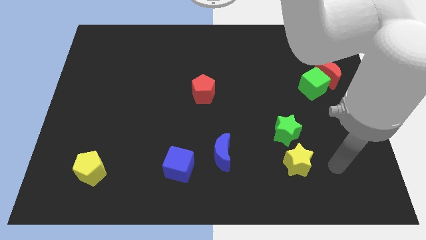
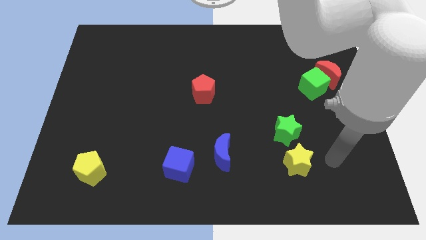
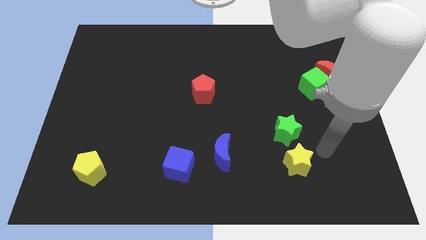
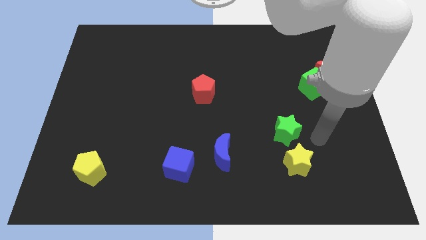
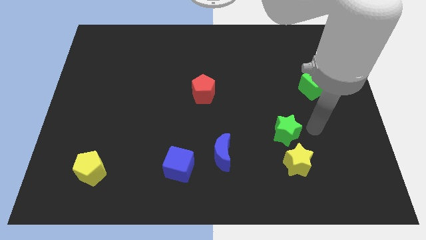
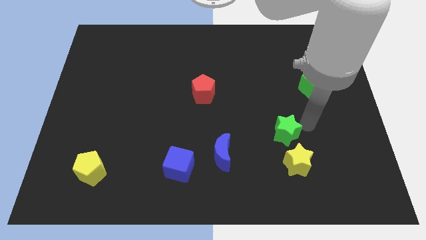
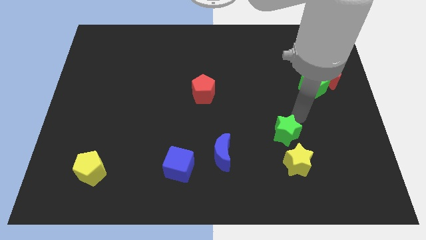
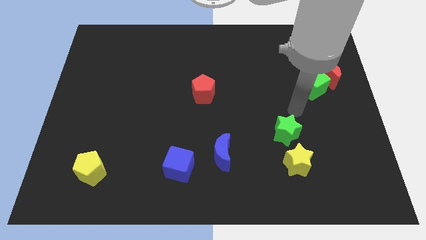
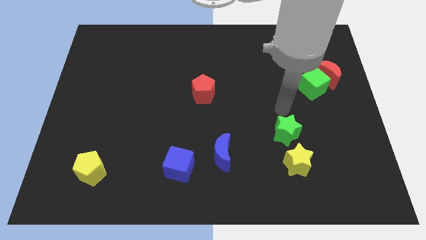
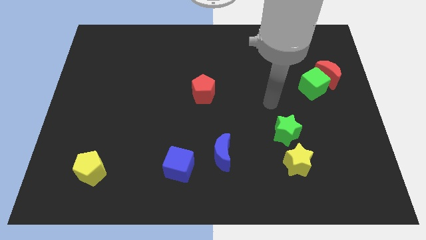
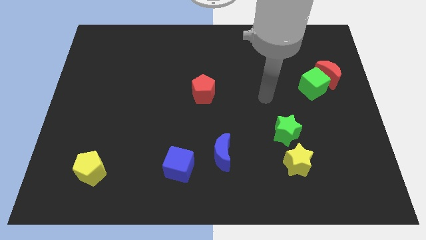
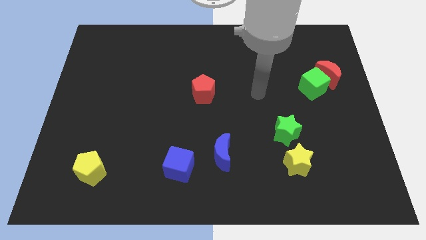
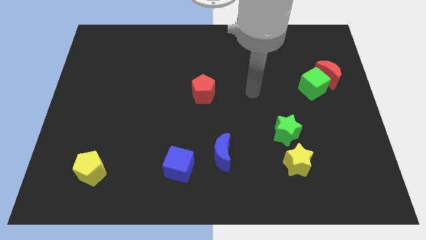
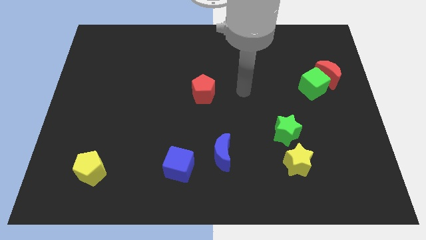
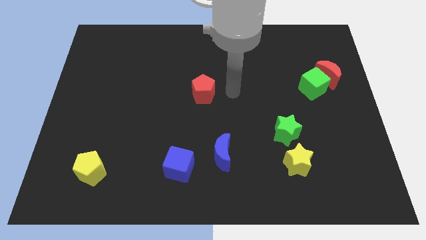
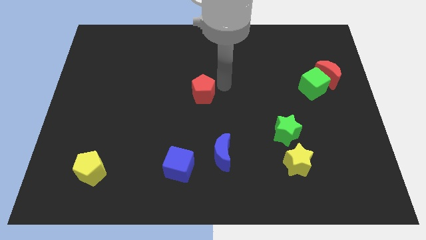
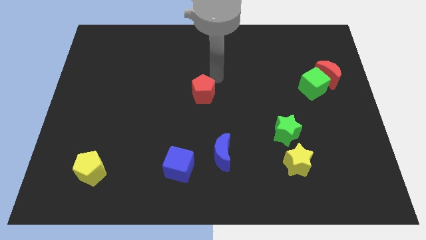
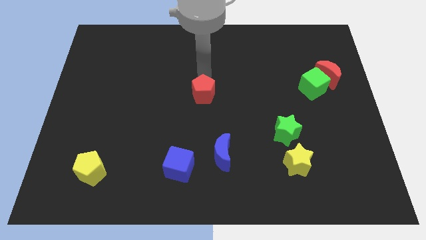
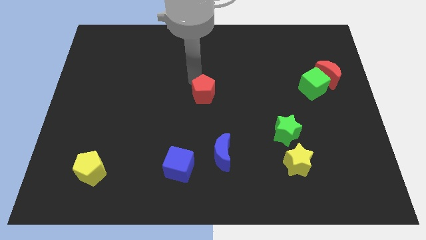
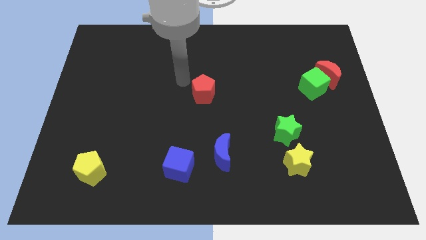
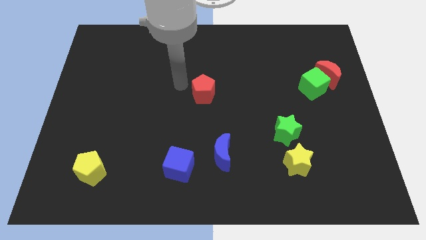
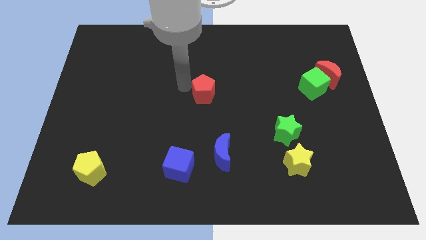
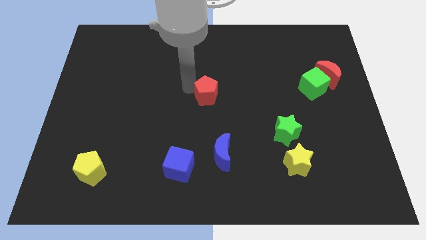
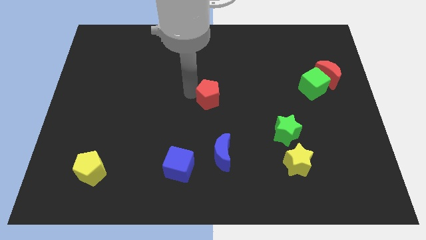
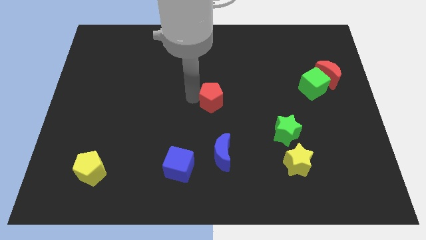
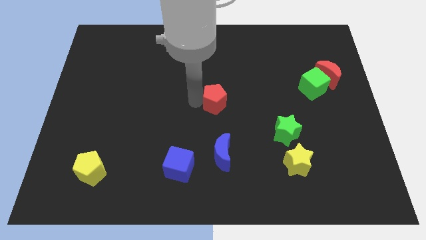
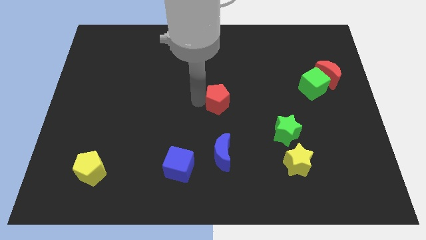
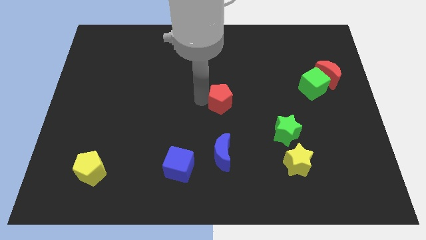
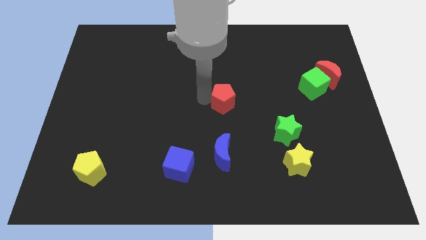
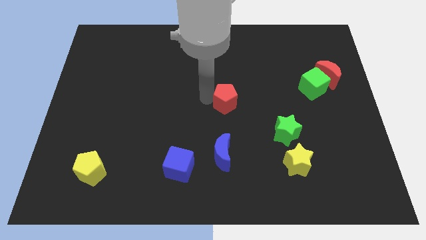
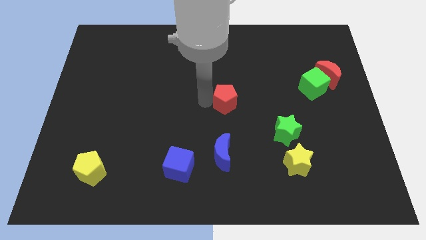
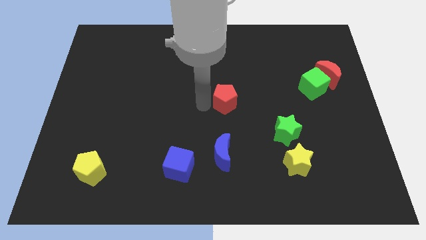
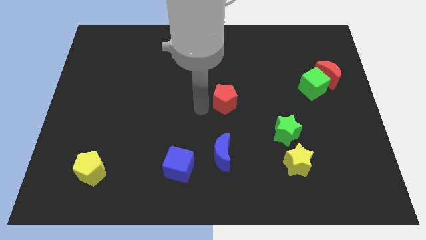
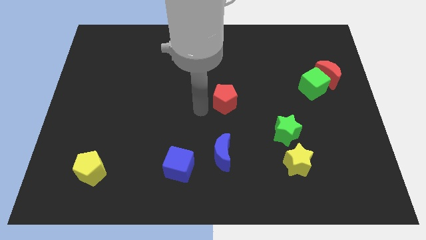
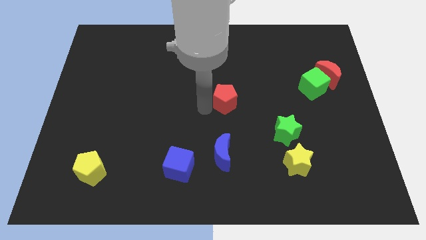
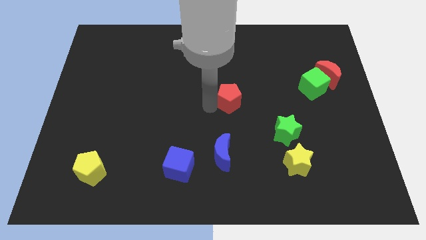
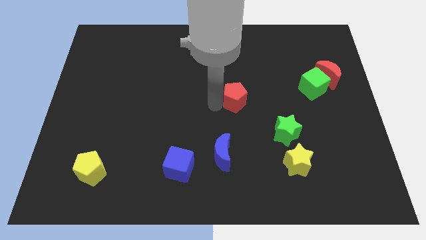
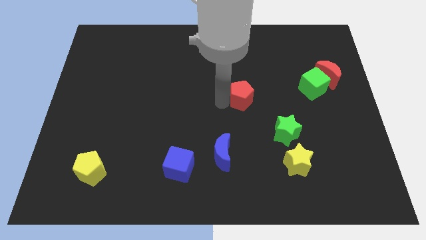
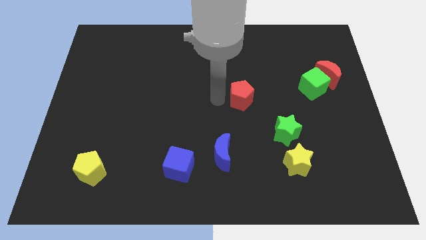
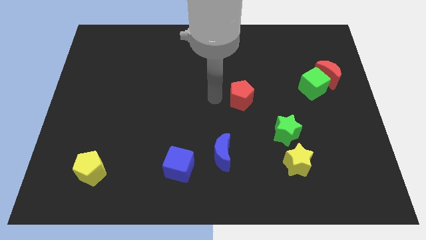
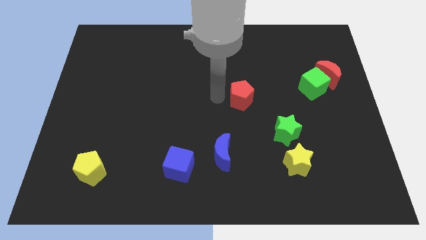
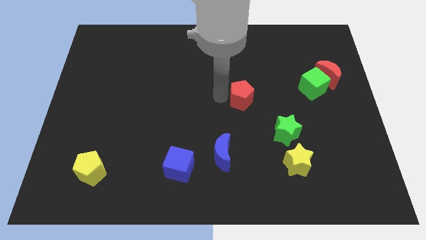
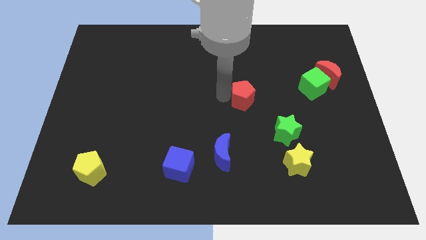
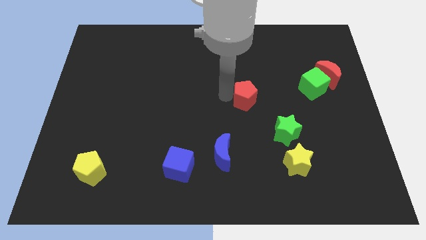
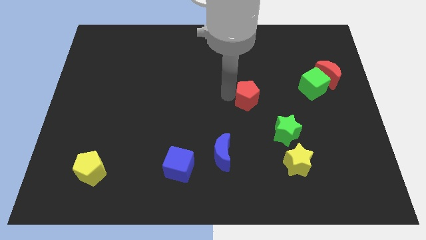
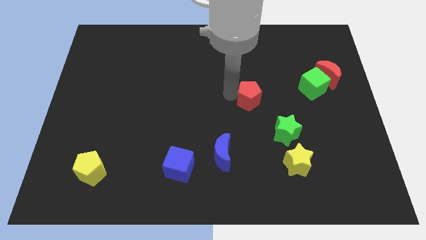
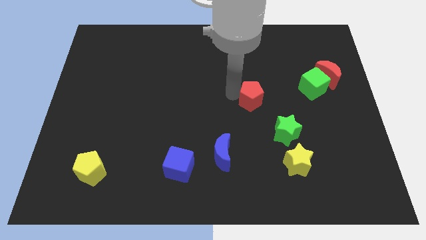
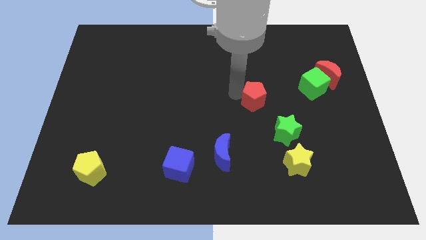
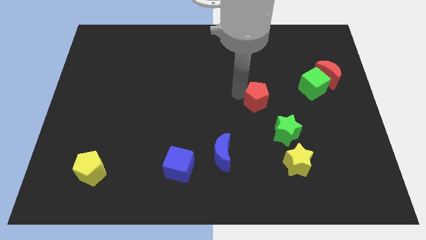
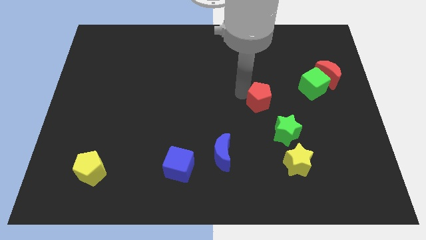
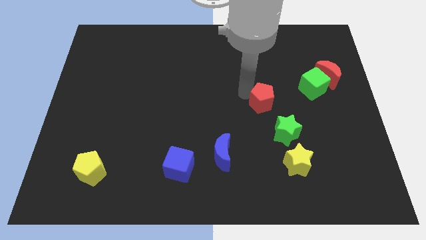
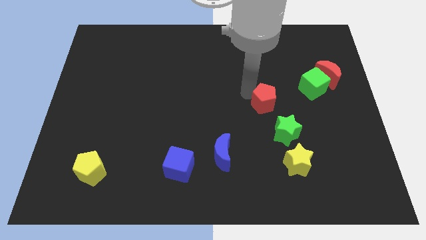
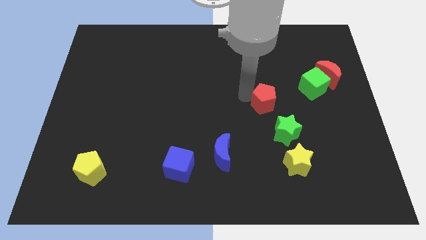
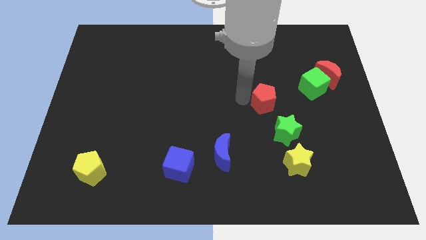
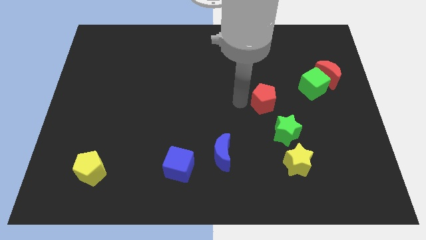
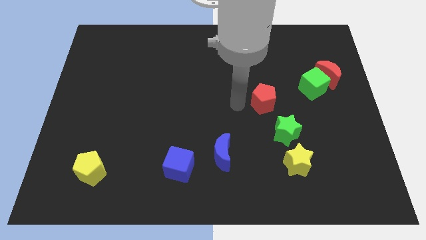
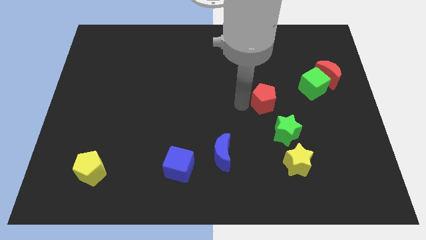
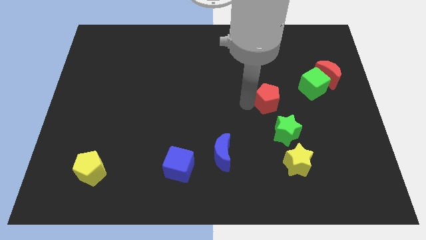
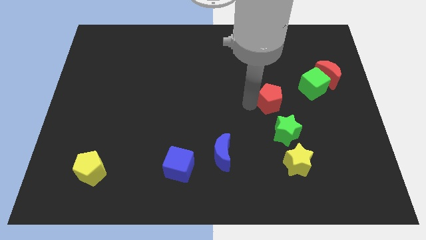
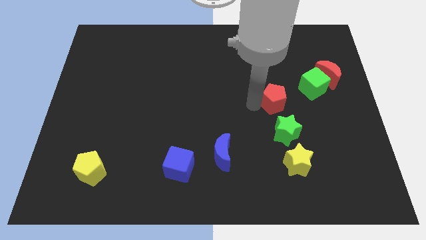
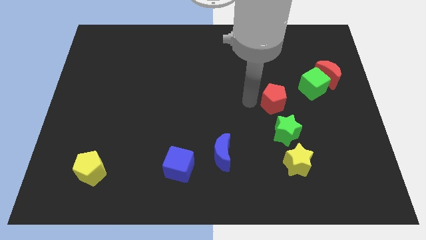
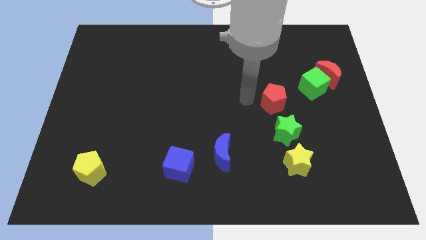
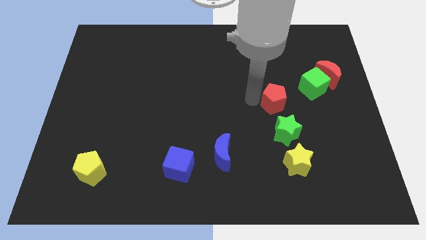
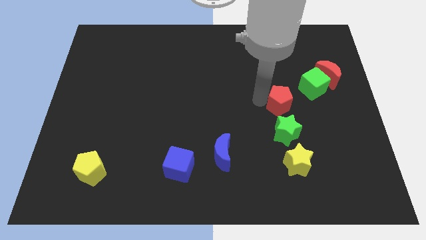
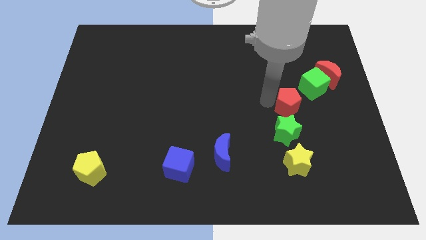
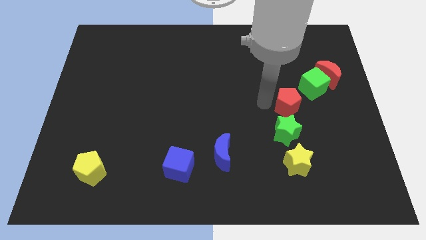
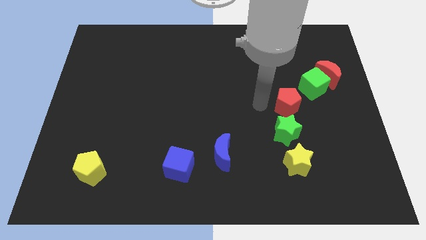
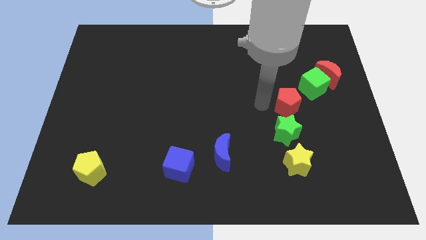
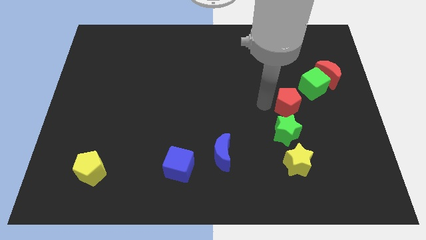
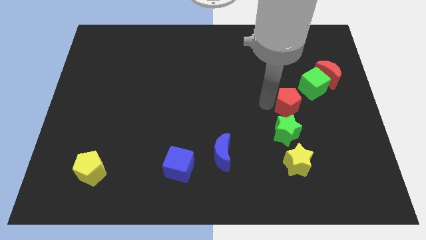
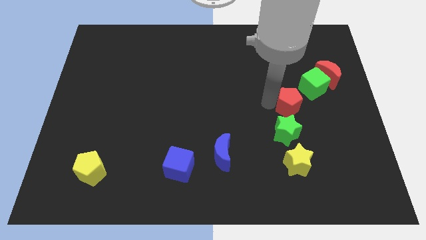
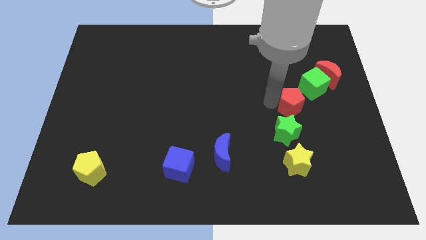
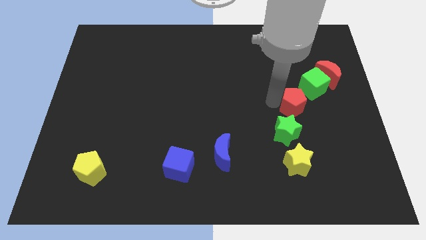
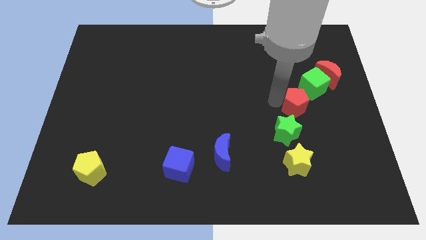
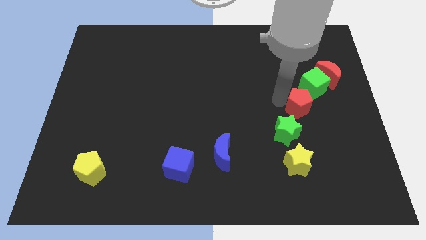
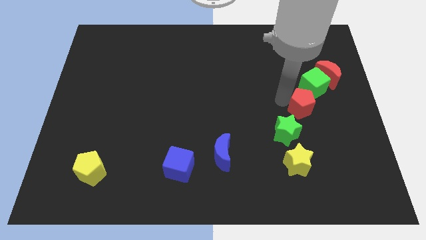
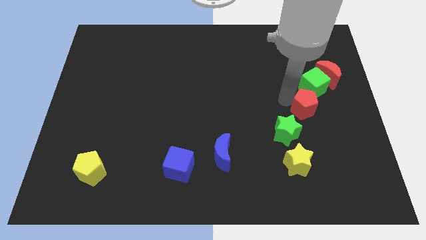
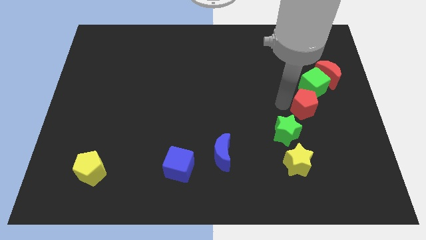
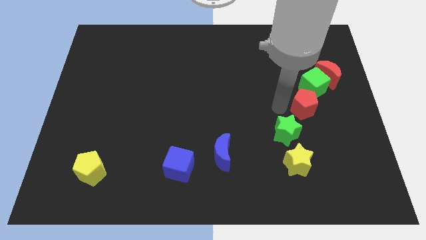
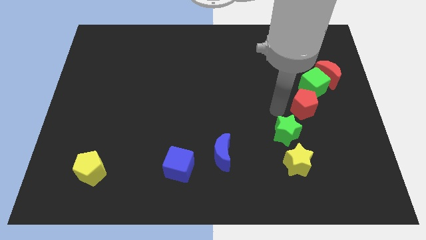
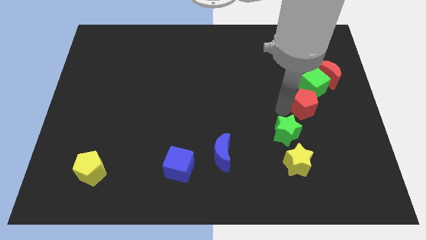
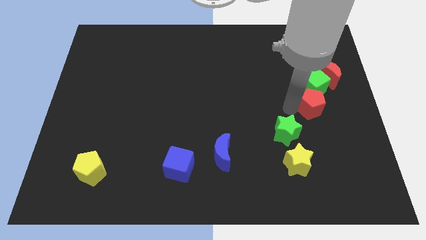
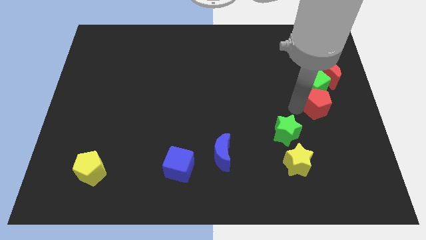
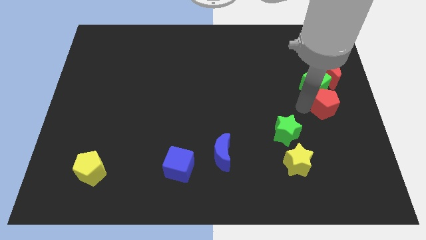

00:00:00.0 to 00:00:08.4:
push the red pentagon to the right side
